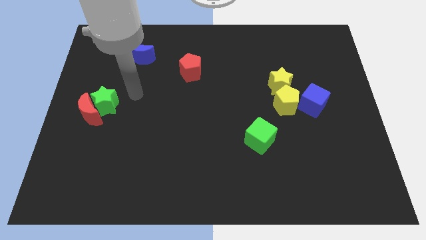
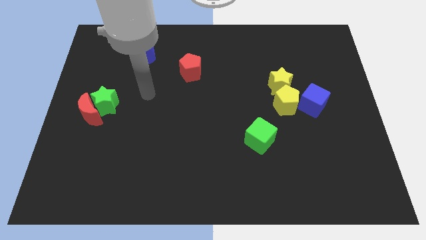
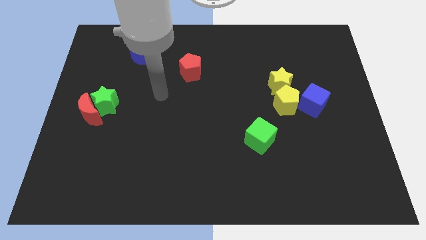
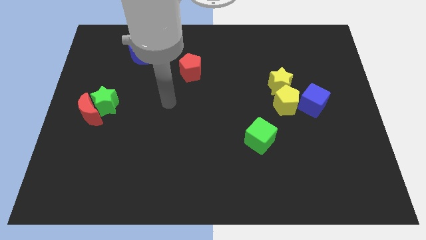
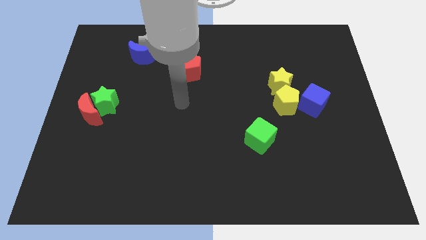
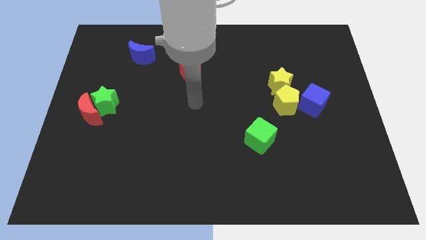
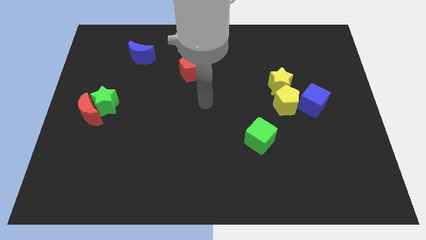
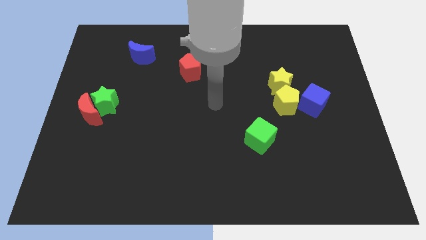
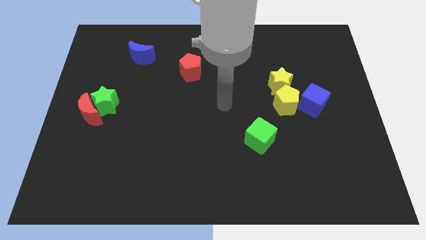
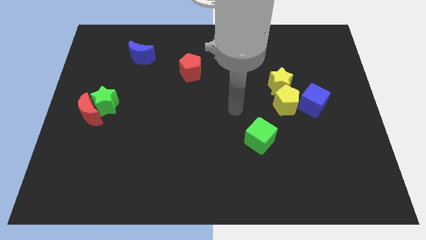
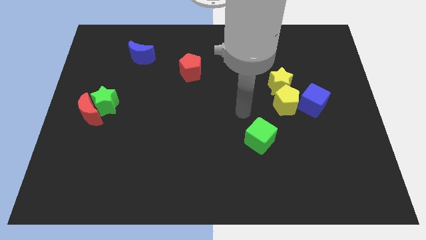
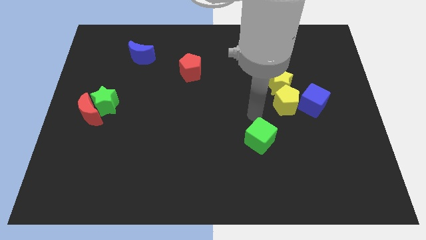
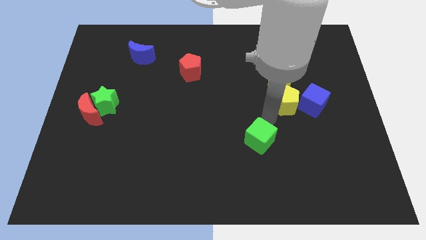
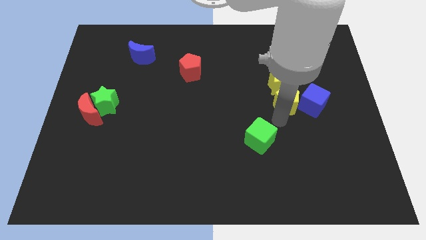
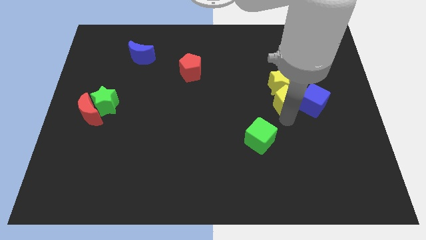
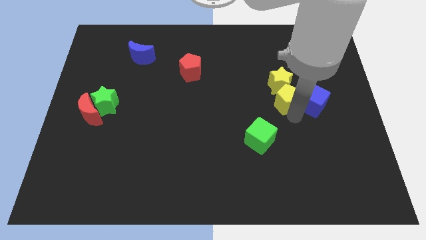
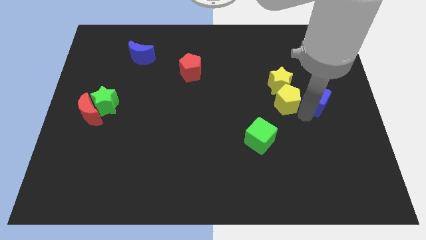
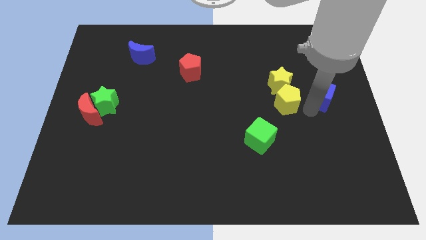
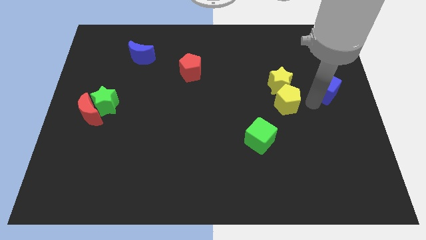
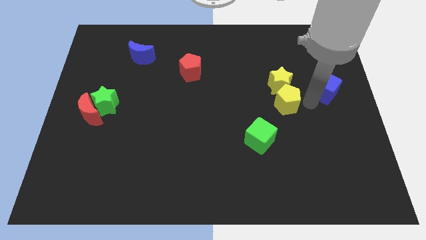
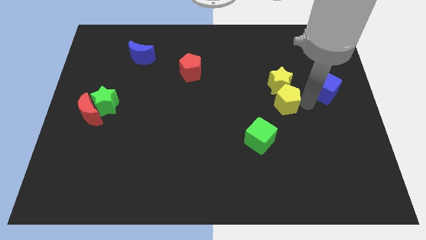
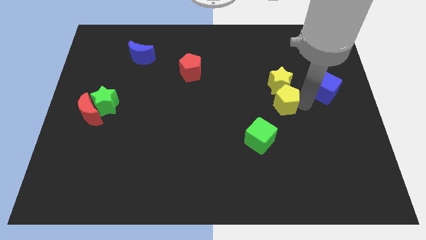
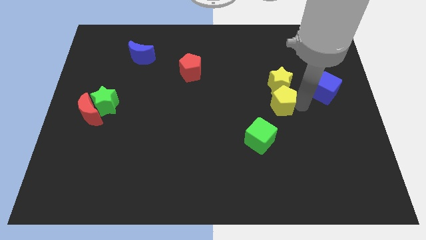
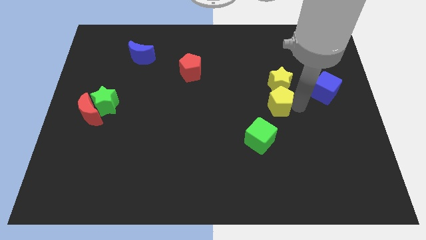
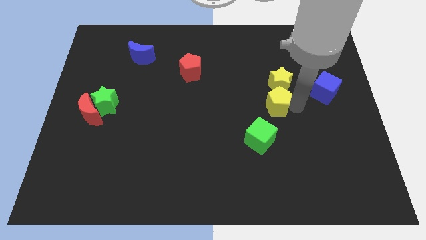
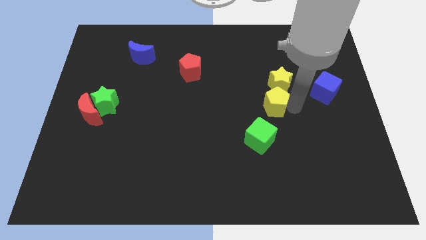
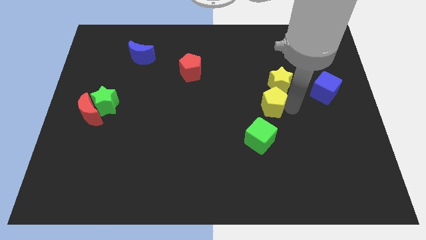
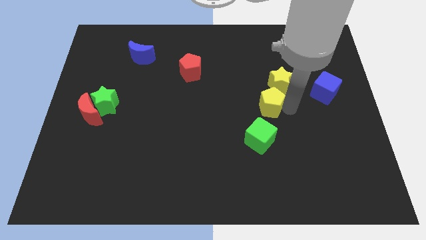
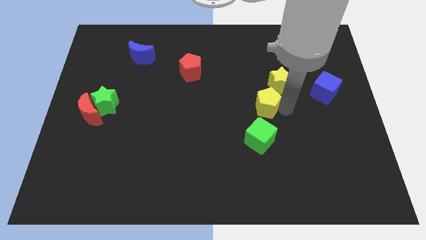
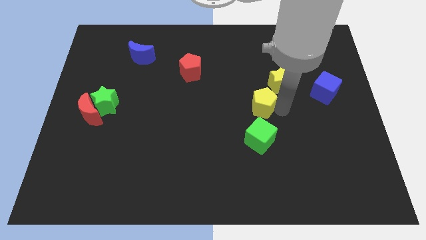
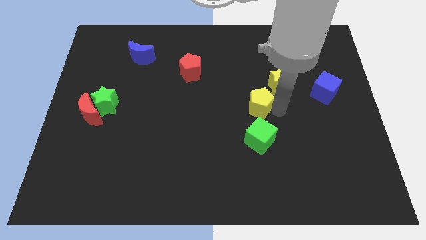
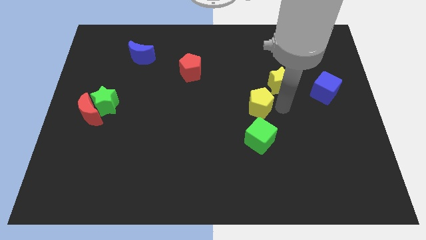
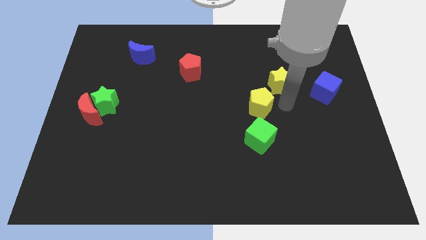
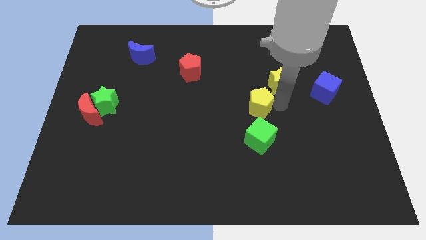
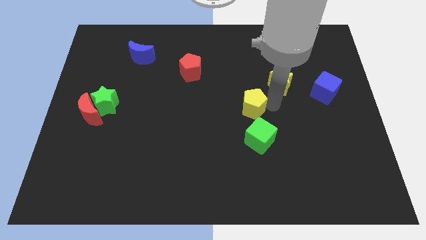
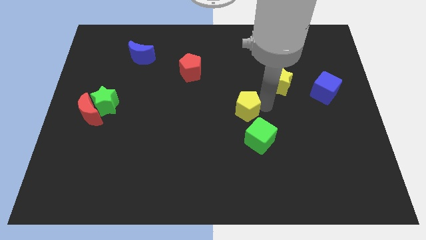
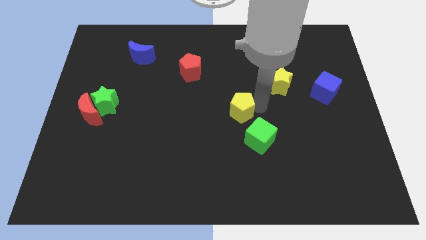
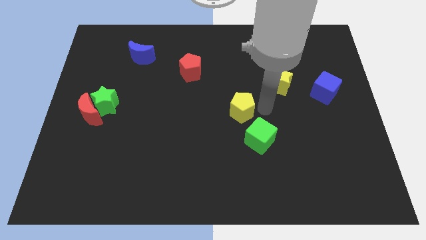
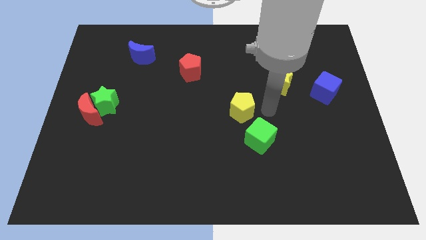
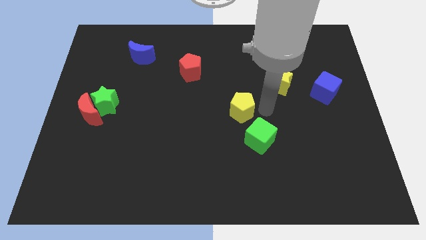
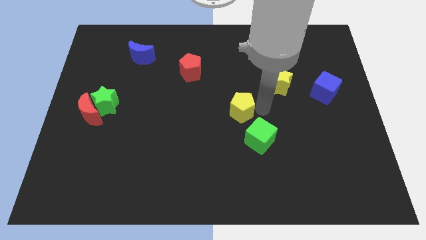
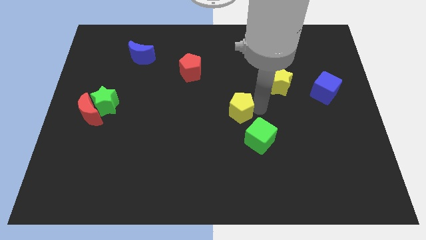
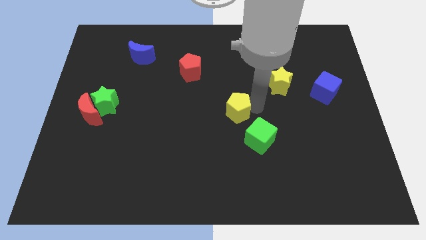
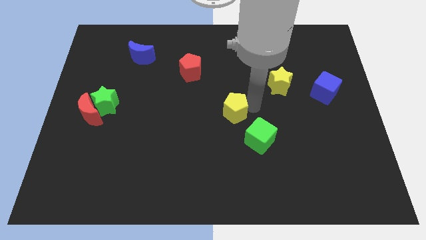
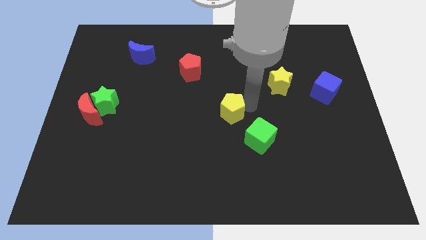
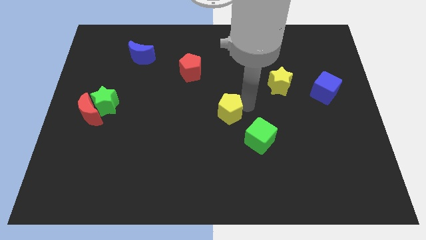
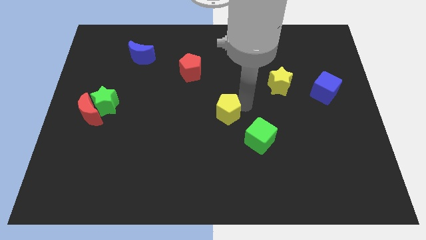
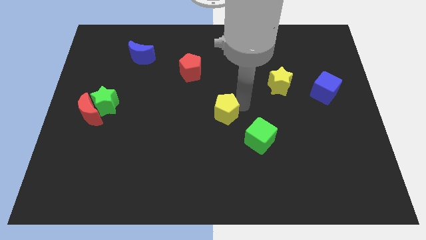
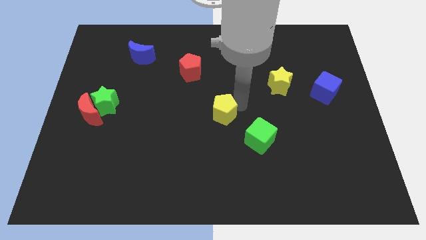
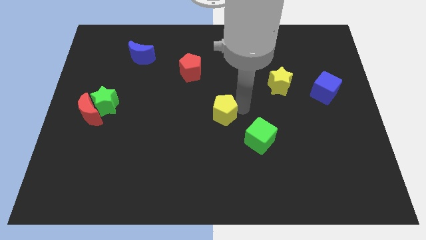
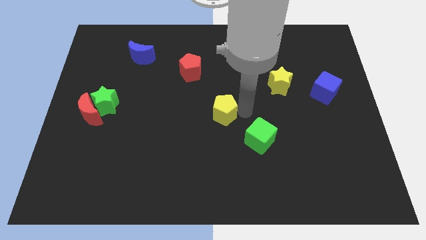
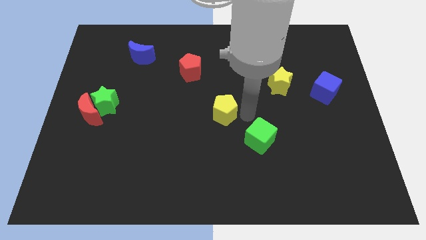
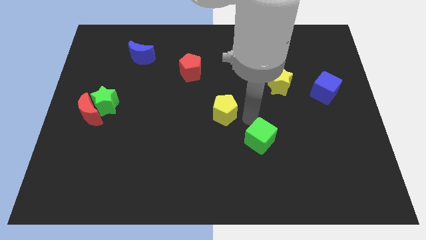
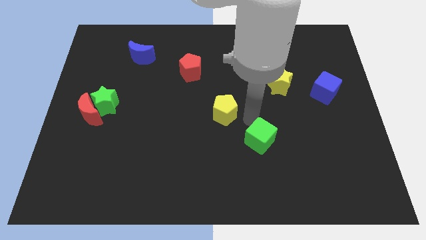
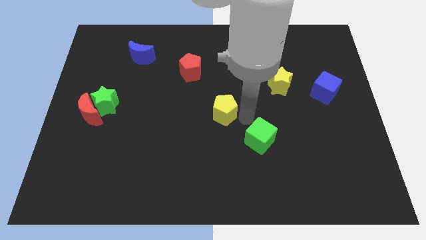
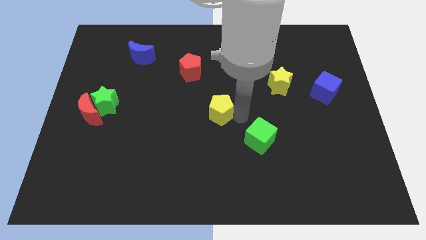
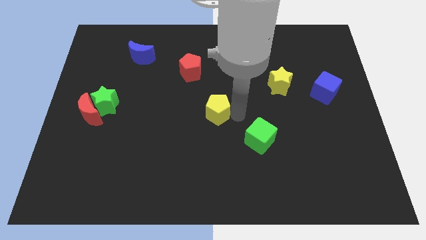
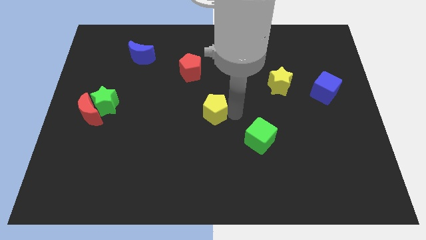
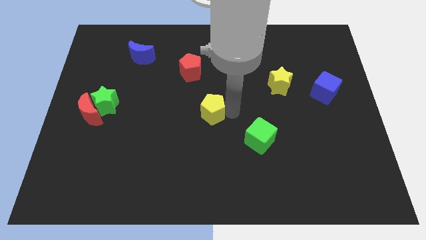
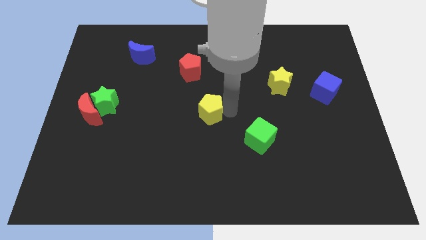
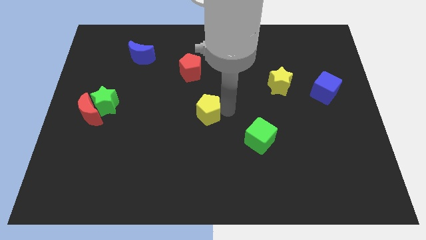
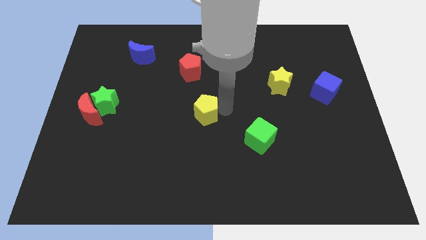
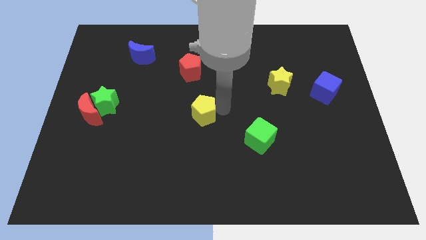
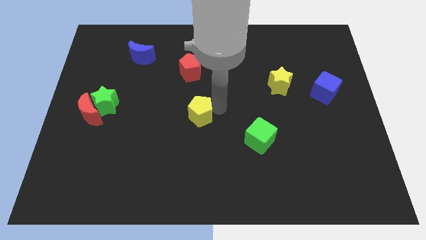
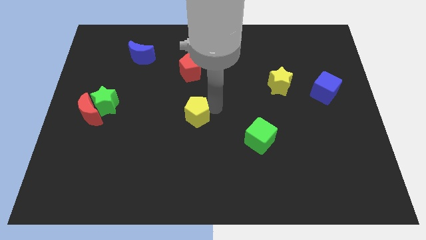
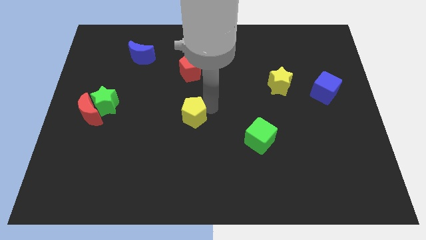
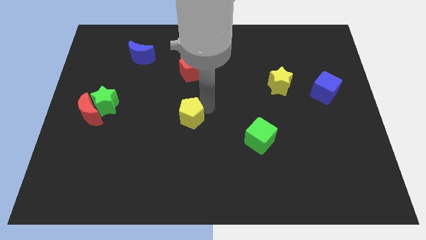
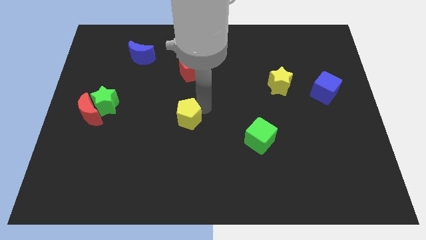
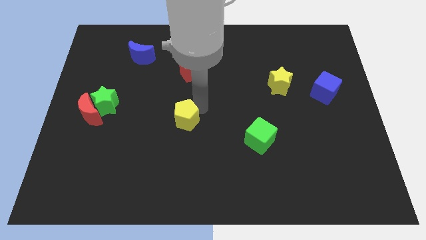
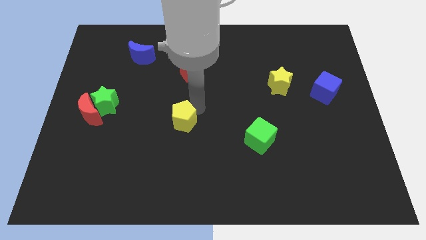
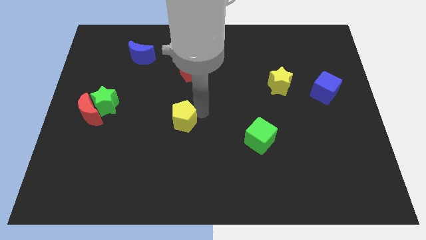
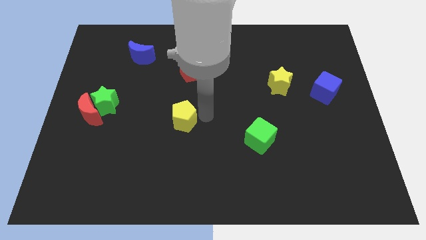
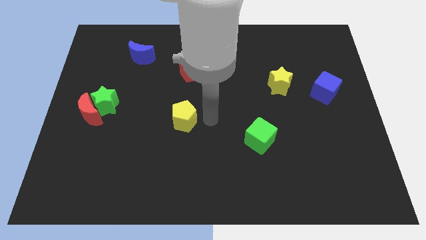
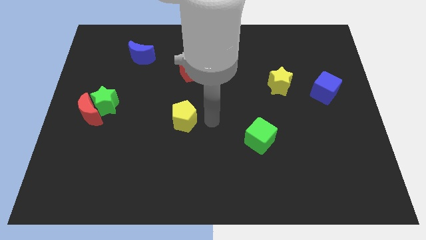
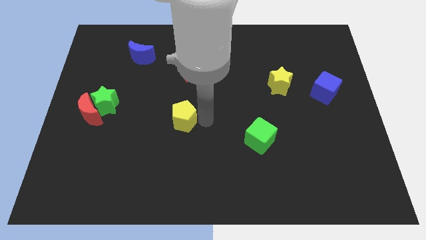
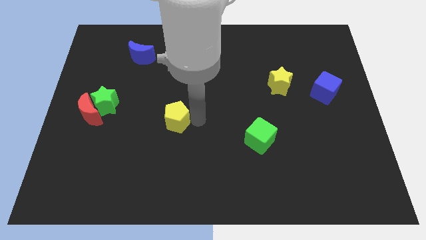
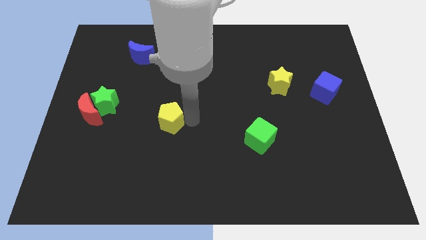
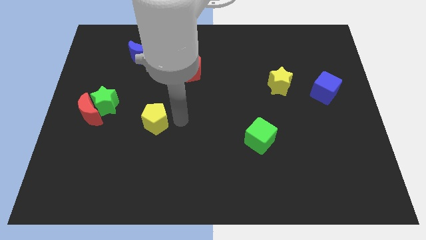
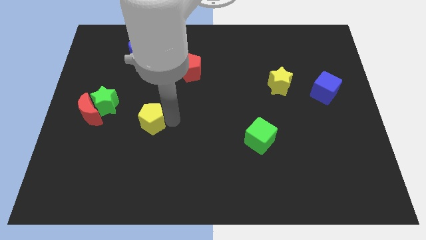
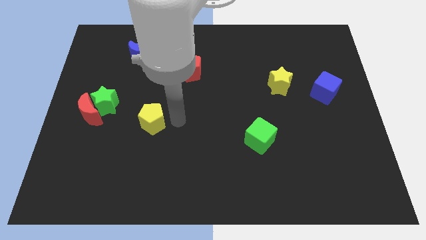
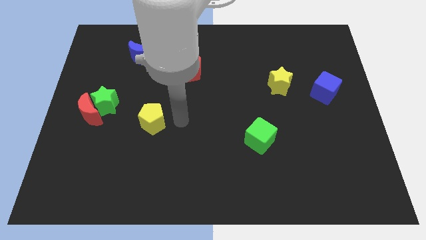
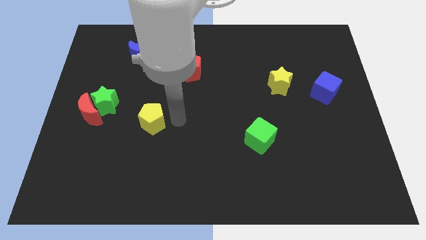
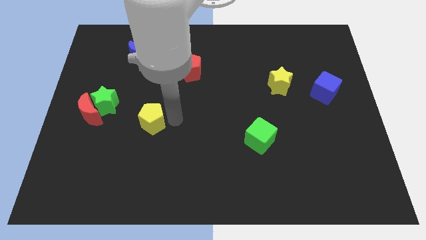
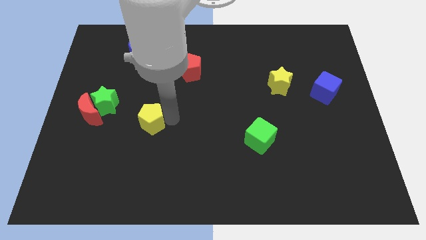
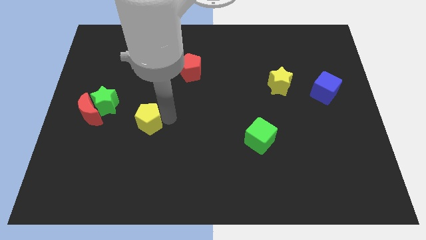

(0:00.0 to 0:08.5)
move the yellow pentagon to the bottom right of the green star
